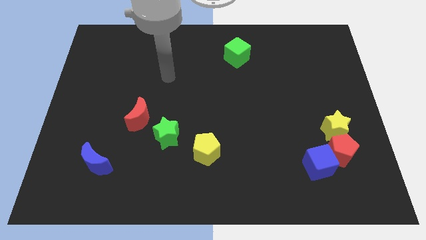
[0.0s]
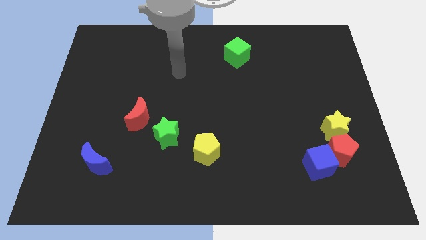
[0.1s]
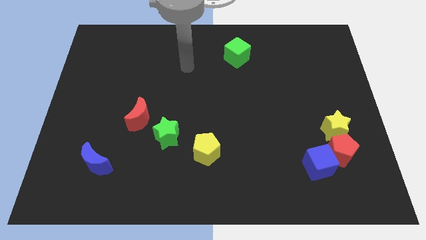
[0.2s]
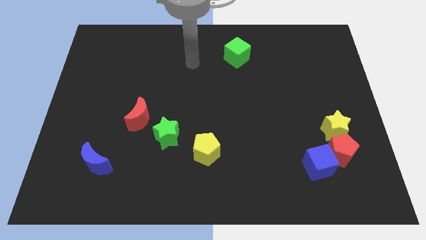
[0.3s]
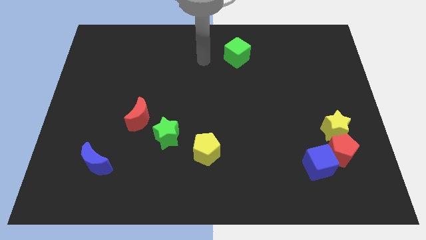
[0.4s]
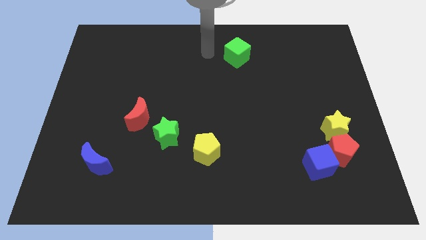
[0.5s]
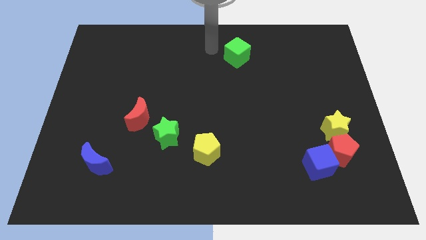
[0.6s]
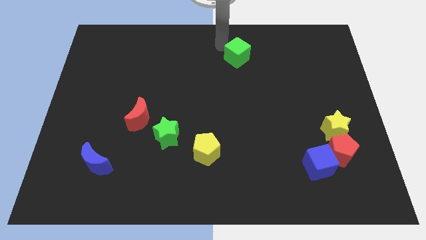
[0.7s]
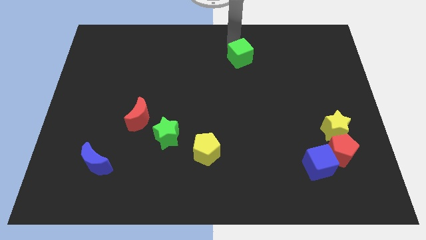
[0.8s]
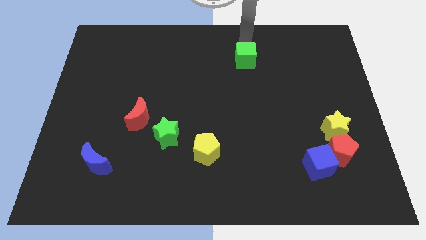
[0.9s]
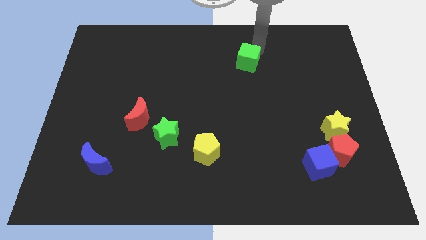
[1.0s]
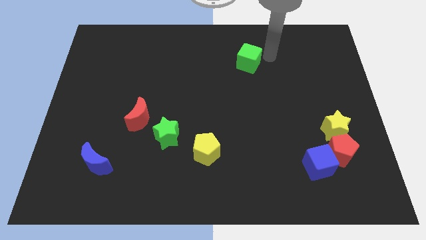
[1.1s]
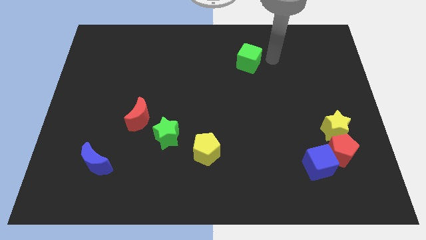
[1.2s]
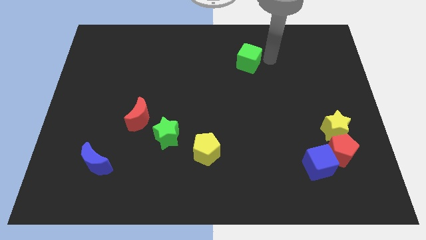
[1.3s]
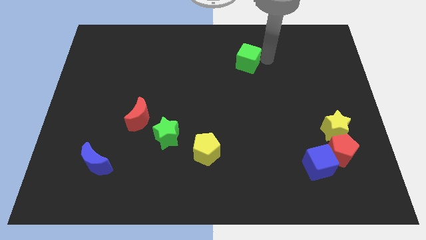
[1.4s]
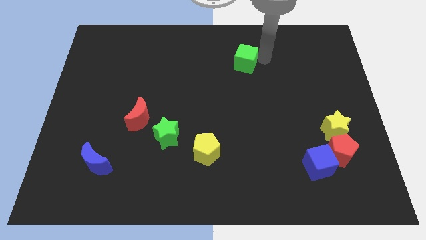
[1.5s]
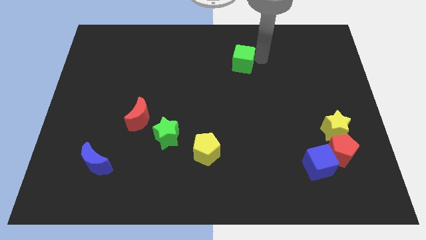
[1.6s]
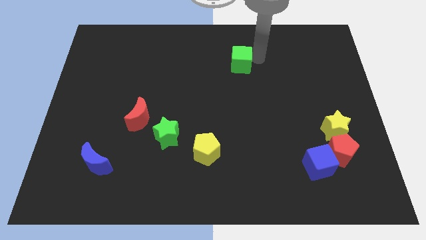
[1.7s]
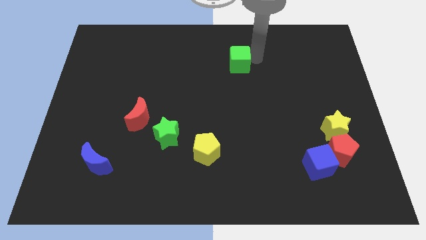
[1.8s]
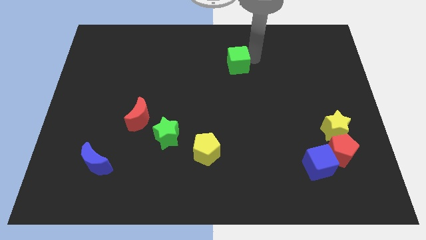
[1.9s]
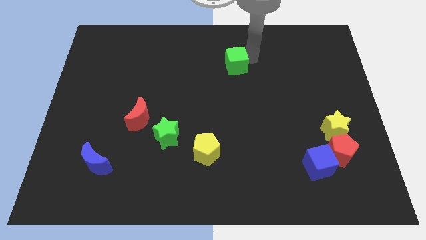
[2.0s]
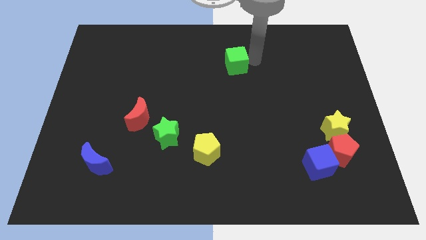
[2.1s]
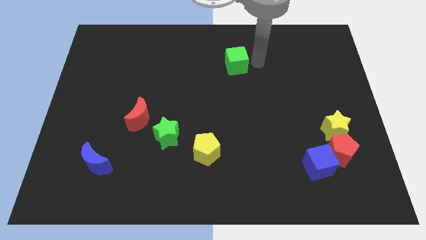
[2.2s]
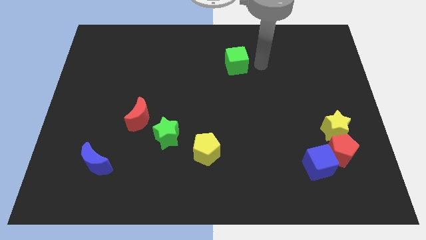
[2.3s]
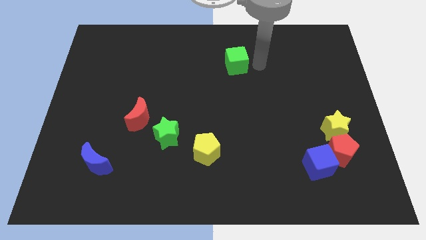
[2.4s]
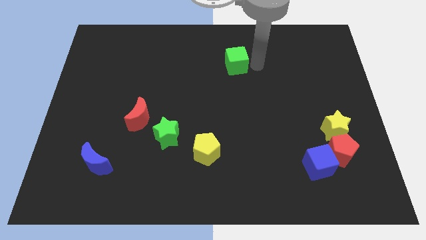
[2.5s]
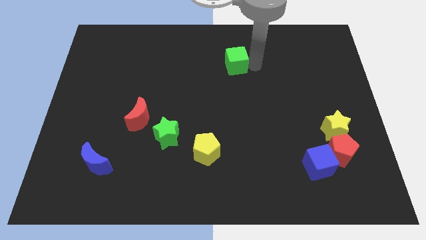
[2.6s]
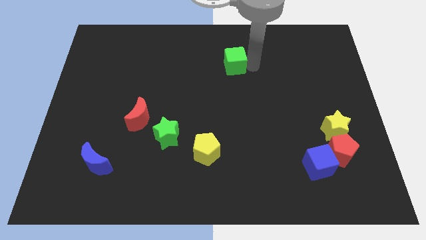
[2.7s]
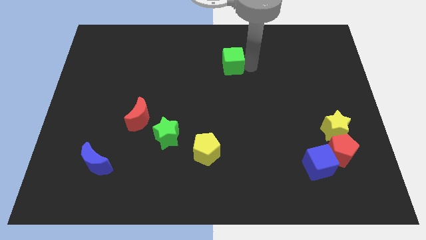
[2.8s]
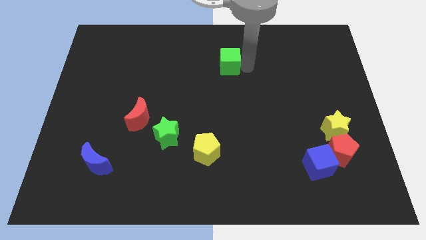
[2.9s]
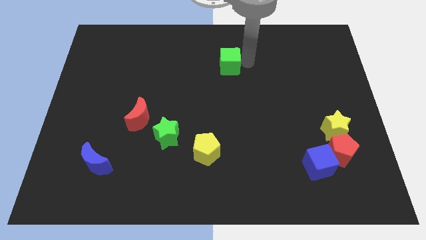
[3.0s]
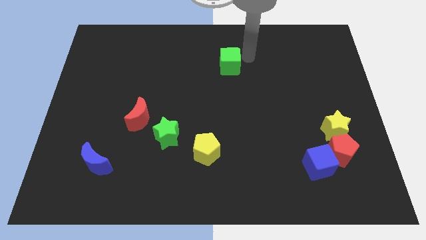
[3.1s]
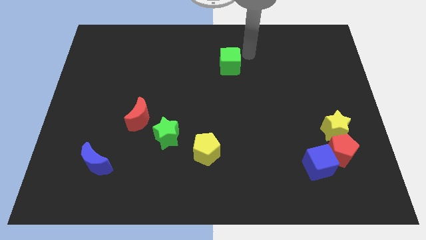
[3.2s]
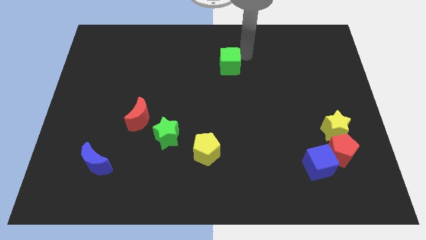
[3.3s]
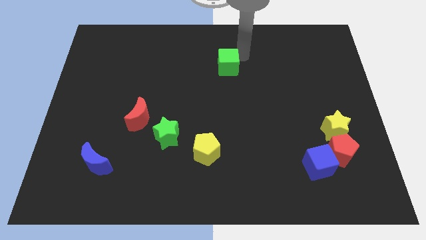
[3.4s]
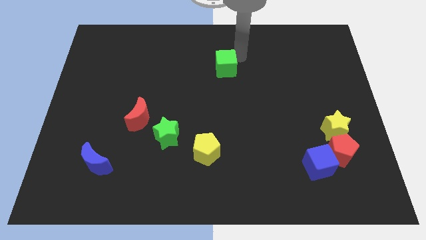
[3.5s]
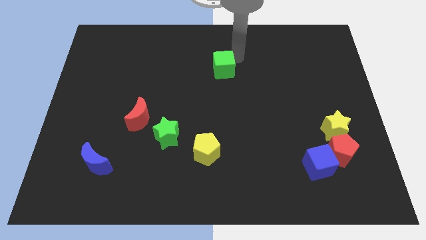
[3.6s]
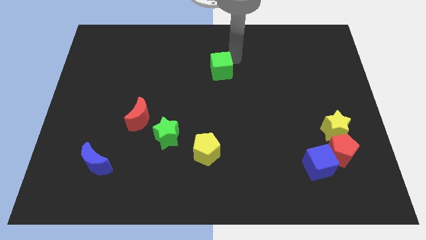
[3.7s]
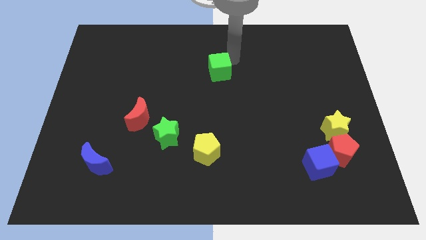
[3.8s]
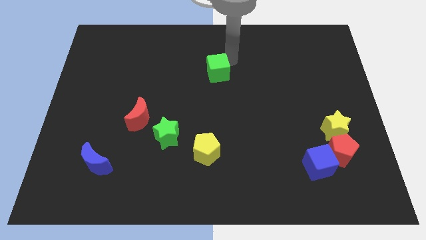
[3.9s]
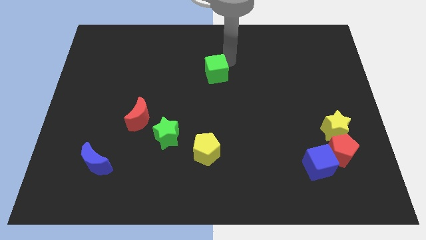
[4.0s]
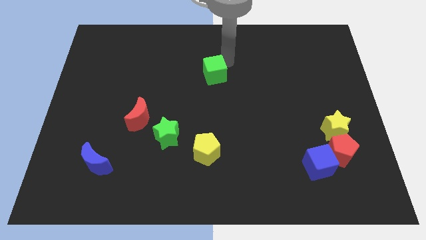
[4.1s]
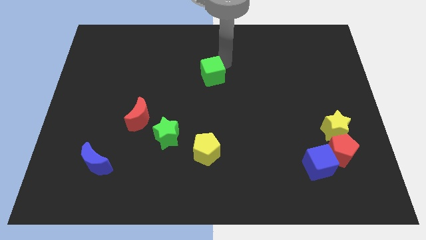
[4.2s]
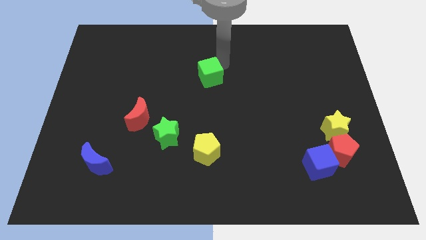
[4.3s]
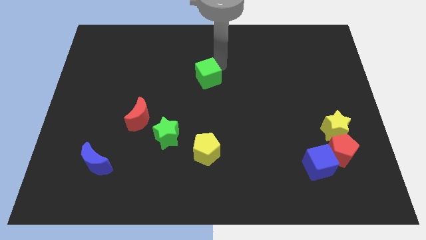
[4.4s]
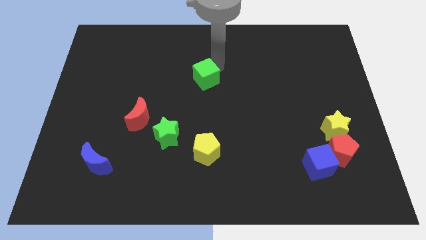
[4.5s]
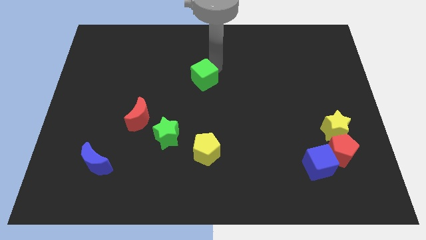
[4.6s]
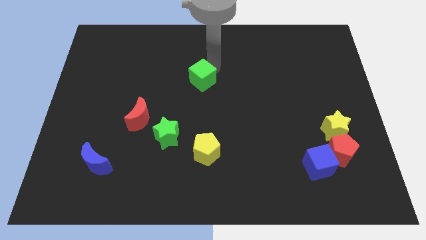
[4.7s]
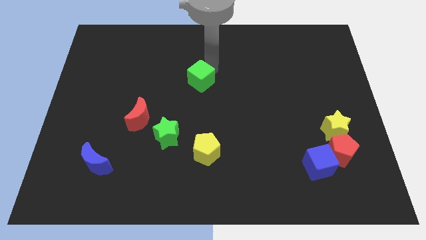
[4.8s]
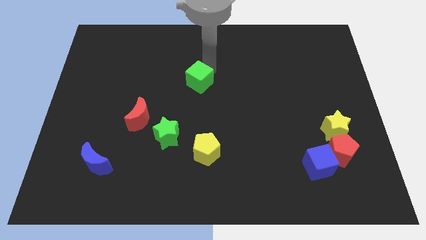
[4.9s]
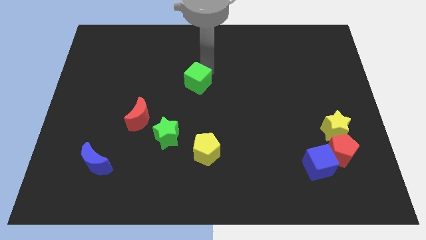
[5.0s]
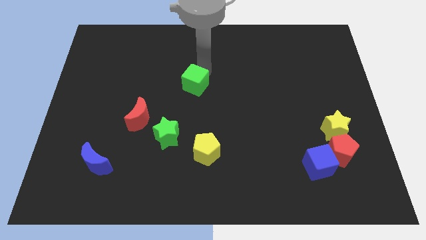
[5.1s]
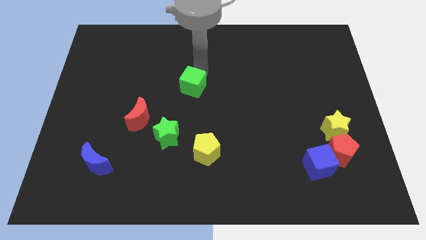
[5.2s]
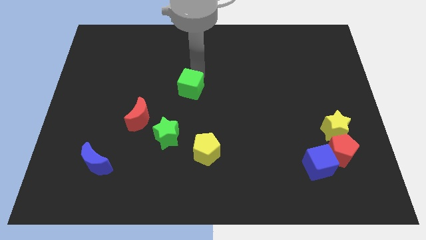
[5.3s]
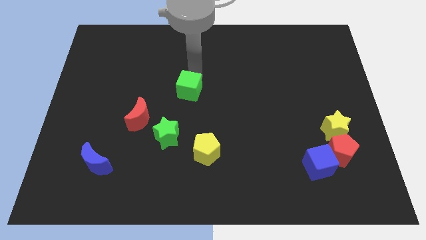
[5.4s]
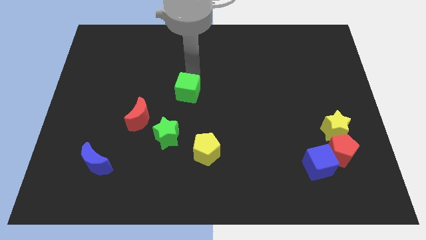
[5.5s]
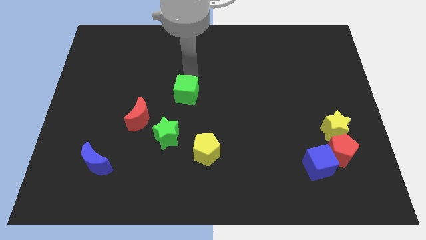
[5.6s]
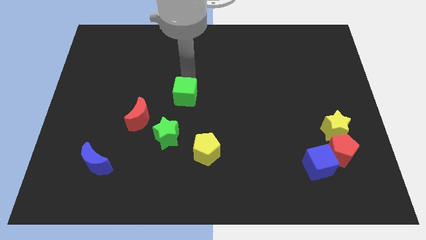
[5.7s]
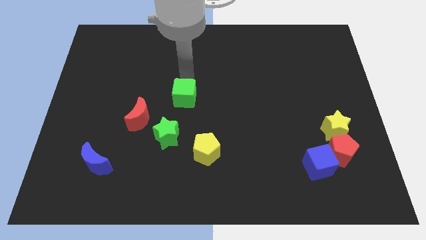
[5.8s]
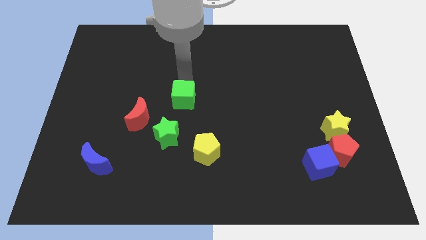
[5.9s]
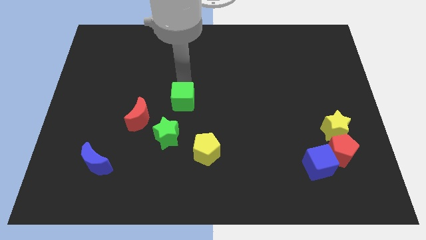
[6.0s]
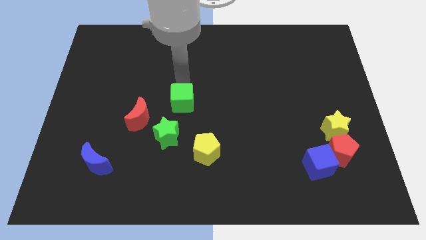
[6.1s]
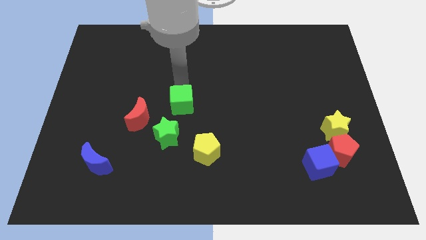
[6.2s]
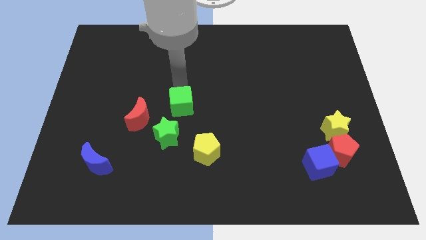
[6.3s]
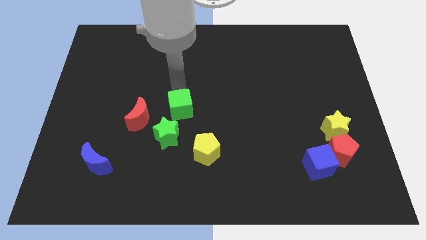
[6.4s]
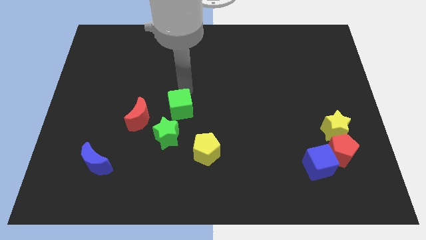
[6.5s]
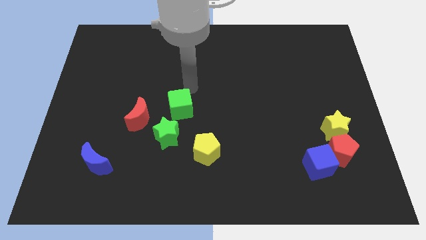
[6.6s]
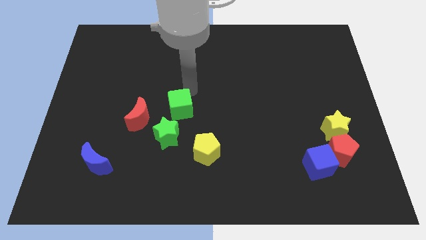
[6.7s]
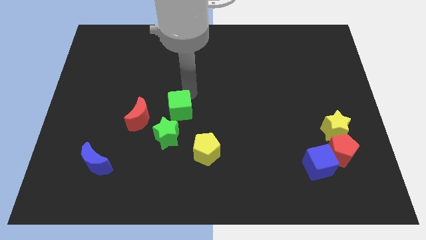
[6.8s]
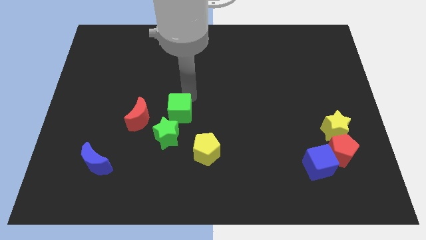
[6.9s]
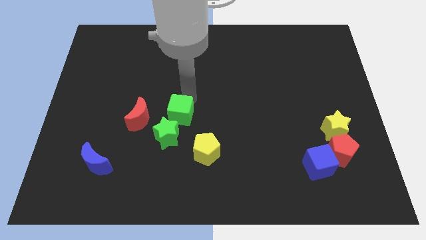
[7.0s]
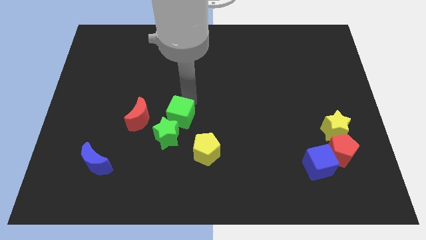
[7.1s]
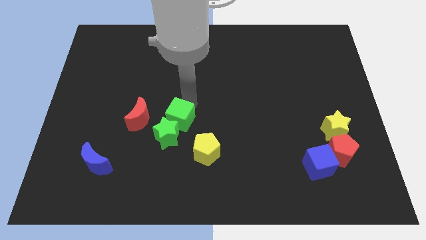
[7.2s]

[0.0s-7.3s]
push the green cube to the green star

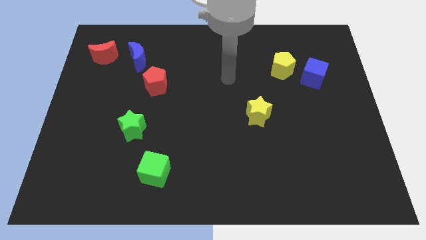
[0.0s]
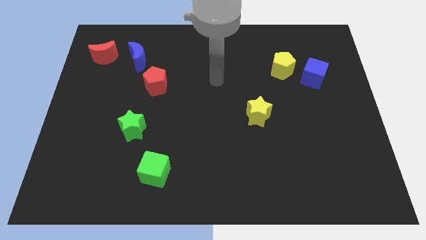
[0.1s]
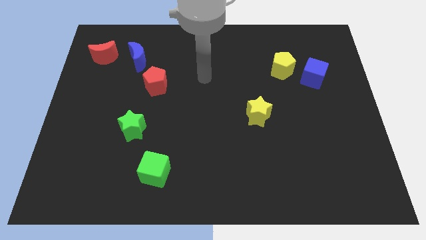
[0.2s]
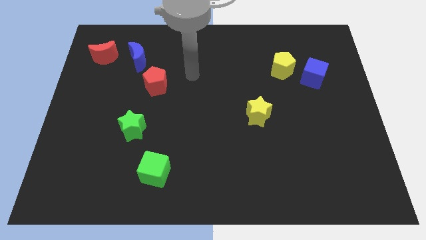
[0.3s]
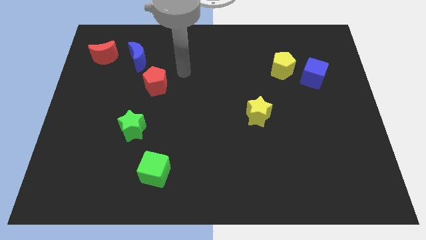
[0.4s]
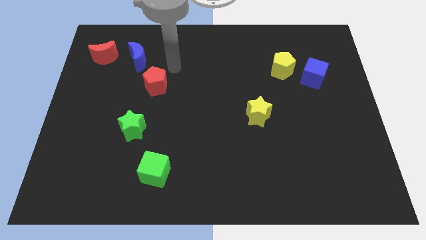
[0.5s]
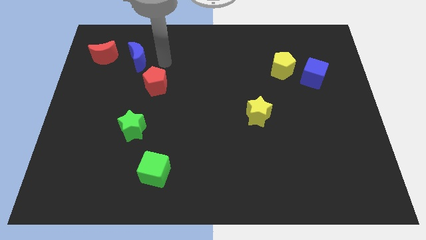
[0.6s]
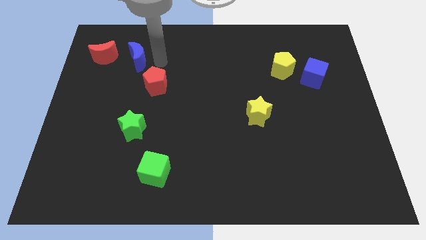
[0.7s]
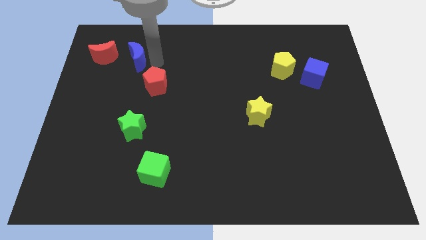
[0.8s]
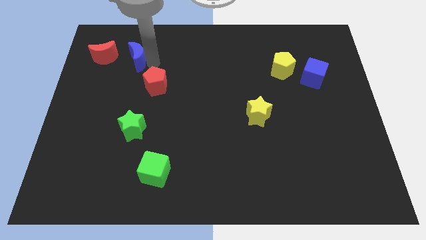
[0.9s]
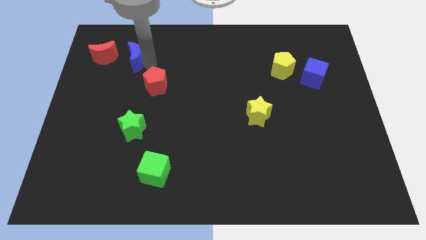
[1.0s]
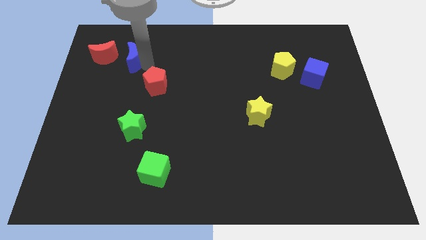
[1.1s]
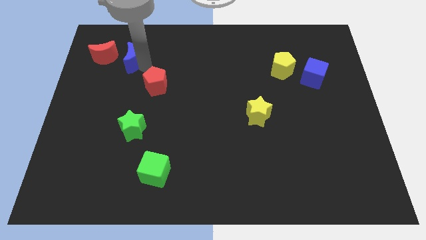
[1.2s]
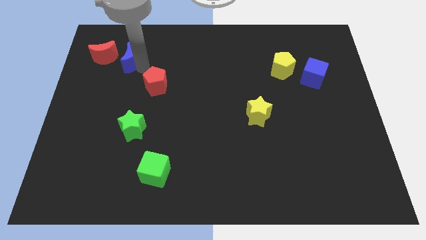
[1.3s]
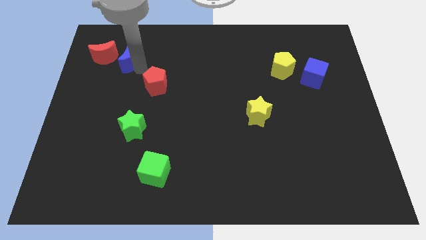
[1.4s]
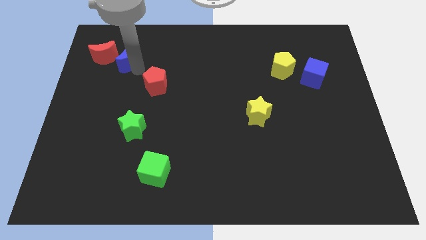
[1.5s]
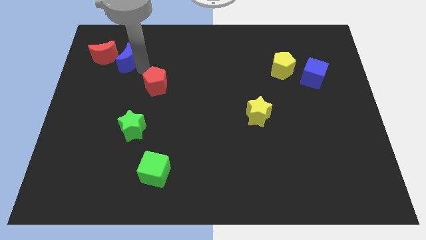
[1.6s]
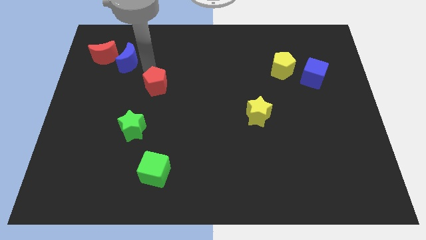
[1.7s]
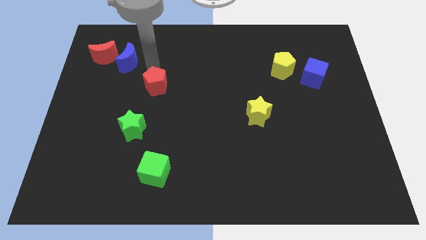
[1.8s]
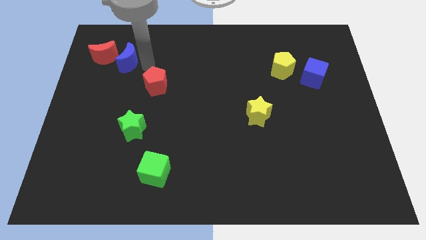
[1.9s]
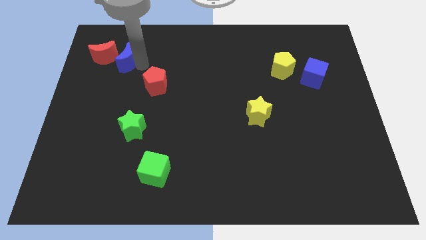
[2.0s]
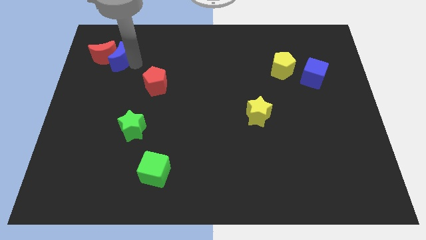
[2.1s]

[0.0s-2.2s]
slide the blue moon towards the red moon
